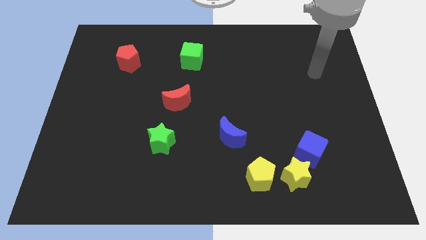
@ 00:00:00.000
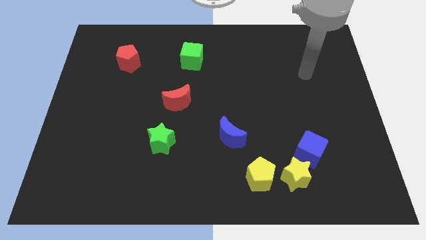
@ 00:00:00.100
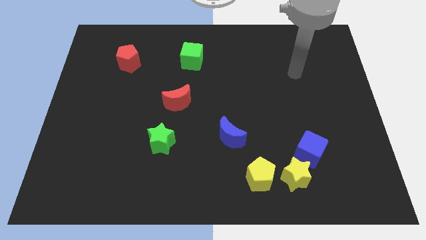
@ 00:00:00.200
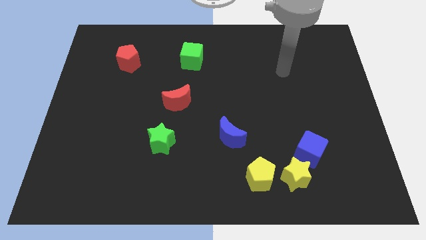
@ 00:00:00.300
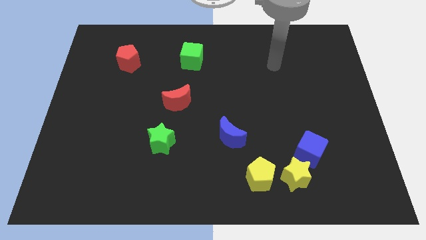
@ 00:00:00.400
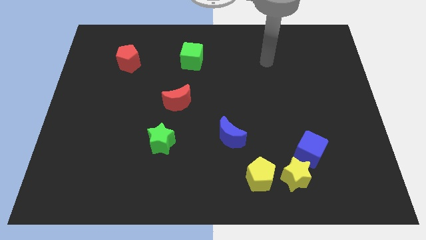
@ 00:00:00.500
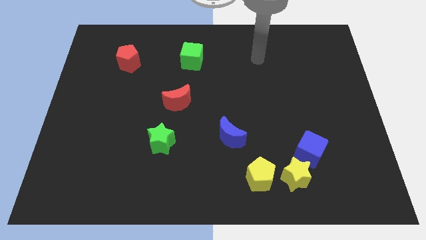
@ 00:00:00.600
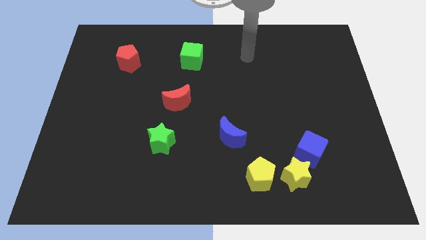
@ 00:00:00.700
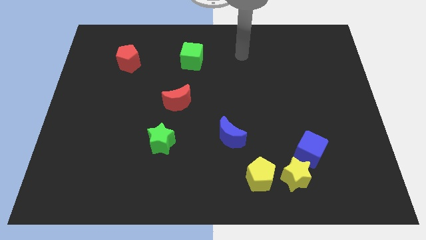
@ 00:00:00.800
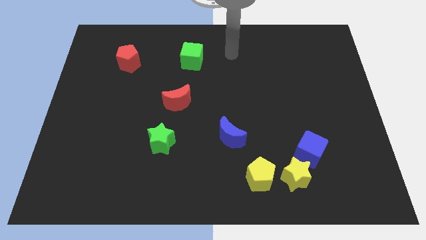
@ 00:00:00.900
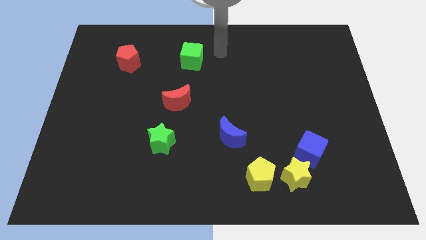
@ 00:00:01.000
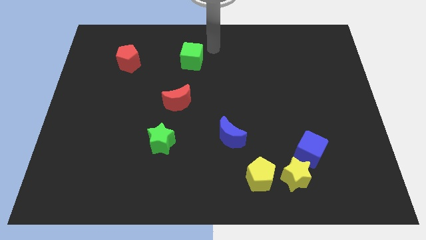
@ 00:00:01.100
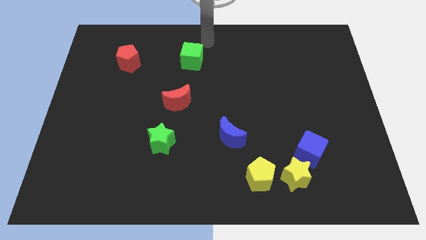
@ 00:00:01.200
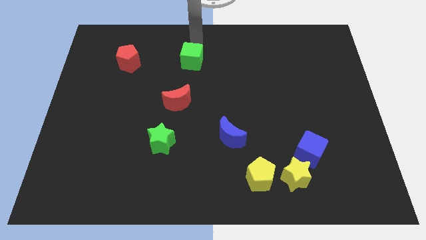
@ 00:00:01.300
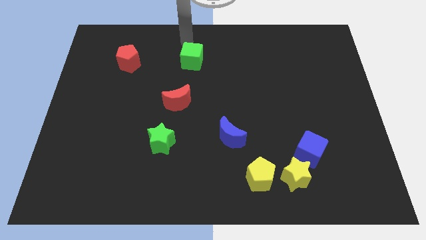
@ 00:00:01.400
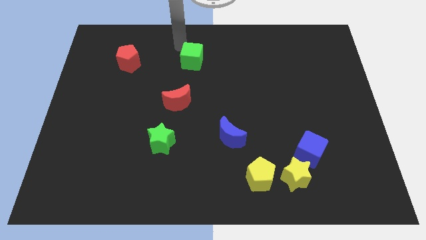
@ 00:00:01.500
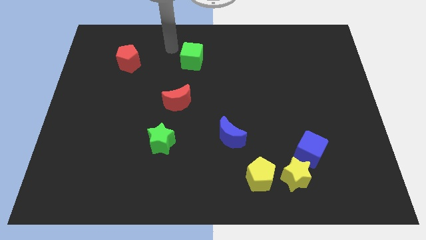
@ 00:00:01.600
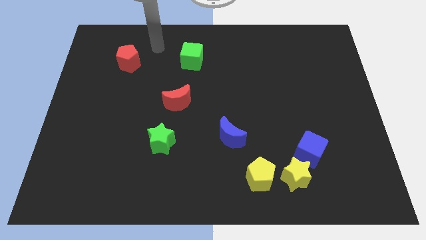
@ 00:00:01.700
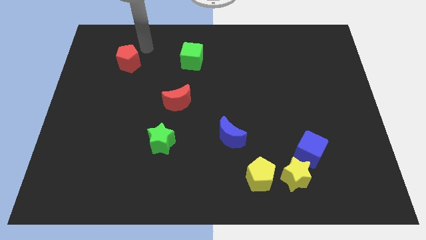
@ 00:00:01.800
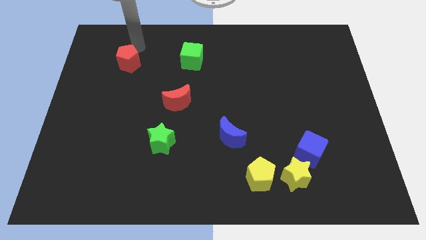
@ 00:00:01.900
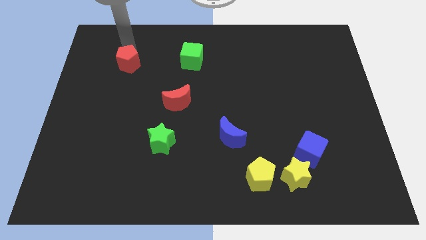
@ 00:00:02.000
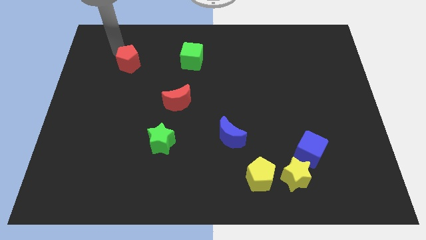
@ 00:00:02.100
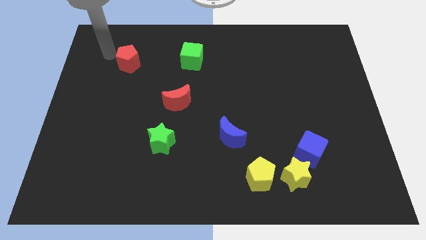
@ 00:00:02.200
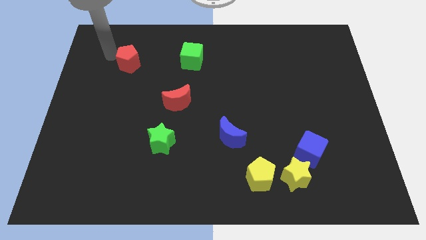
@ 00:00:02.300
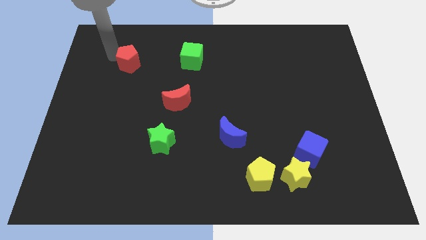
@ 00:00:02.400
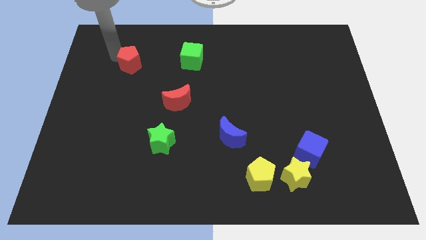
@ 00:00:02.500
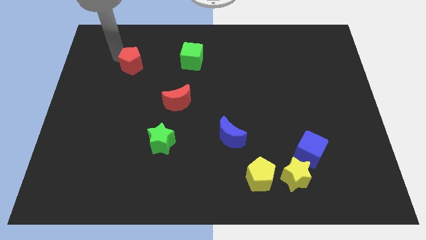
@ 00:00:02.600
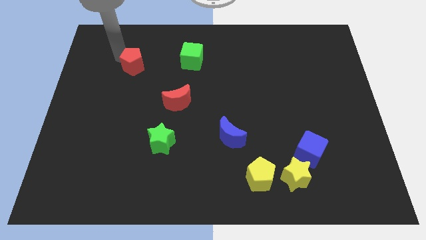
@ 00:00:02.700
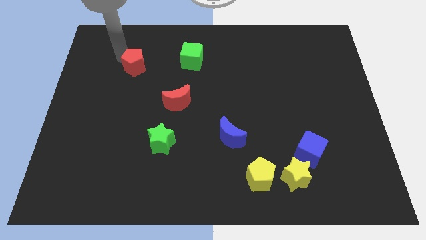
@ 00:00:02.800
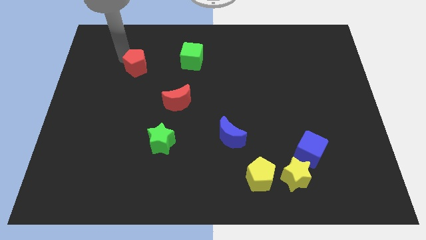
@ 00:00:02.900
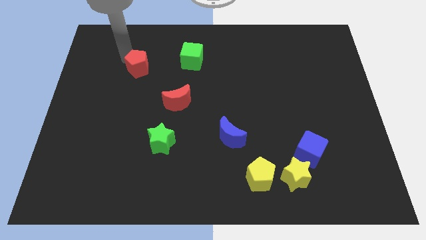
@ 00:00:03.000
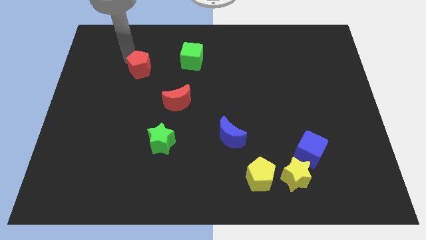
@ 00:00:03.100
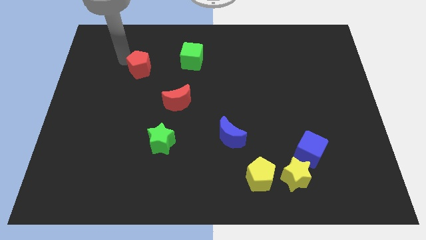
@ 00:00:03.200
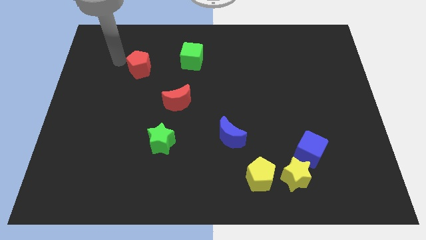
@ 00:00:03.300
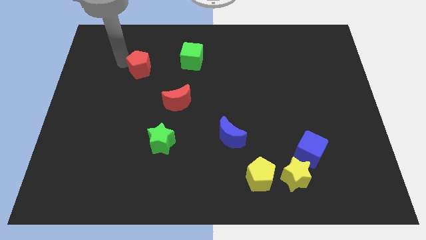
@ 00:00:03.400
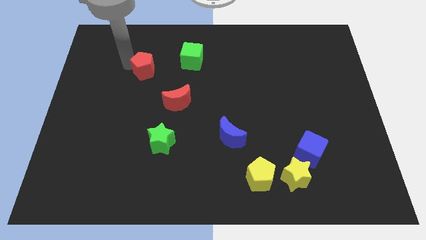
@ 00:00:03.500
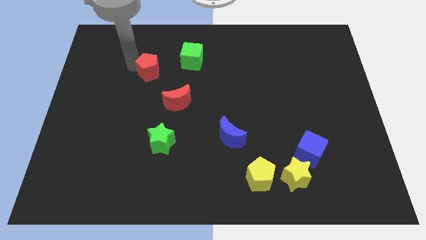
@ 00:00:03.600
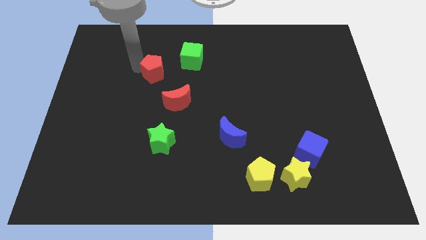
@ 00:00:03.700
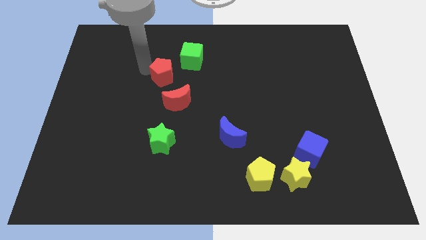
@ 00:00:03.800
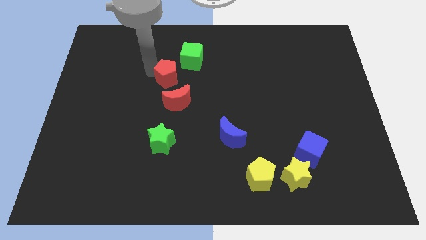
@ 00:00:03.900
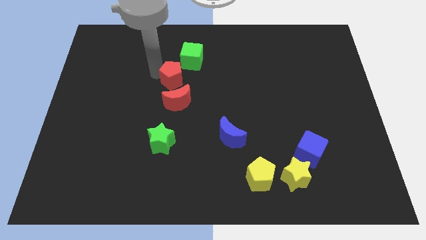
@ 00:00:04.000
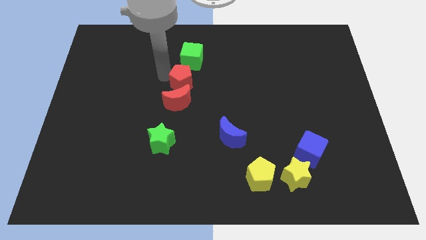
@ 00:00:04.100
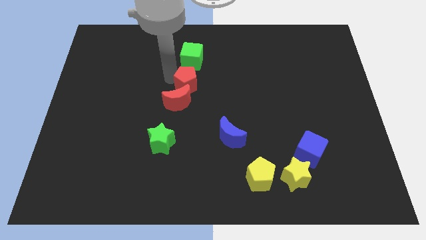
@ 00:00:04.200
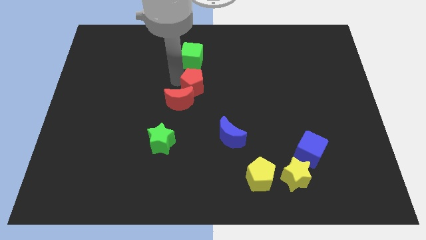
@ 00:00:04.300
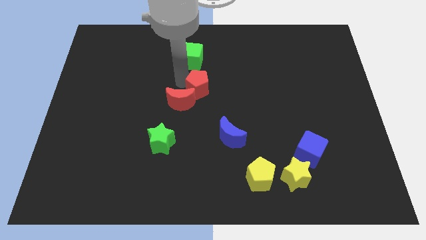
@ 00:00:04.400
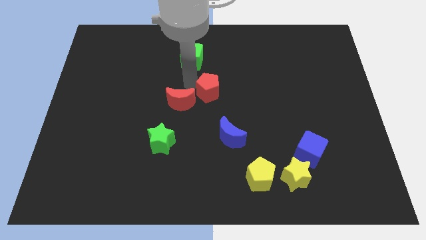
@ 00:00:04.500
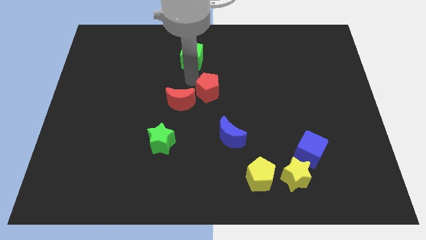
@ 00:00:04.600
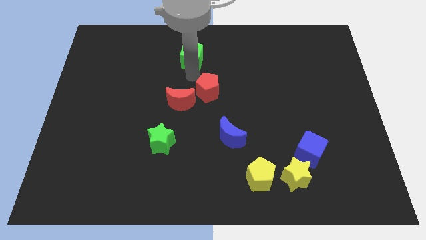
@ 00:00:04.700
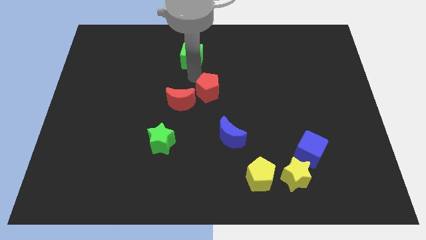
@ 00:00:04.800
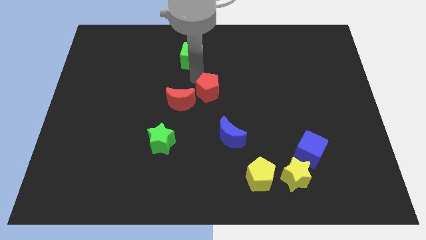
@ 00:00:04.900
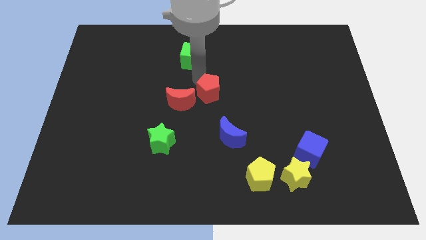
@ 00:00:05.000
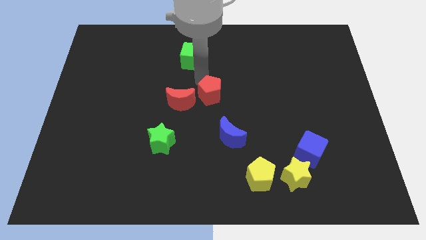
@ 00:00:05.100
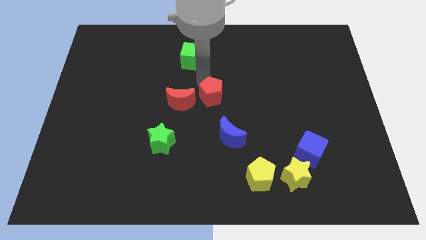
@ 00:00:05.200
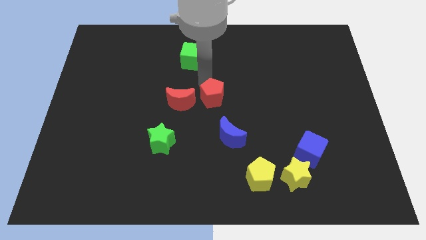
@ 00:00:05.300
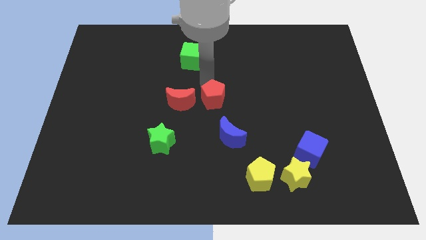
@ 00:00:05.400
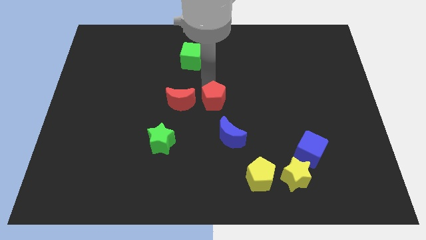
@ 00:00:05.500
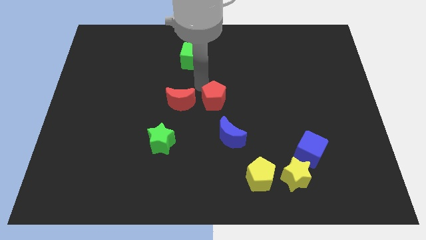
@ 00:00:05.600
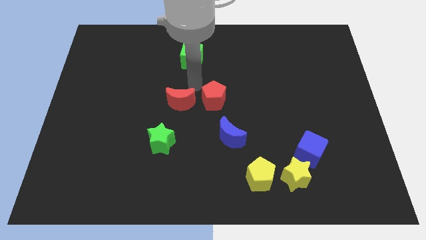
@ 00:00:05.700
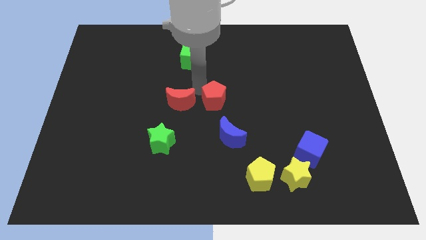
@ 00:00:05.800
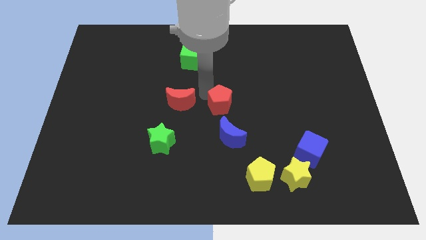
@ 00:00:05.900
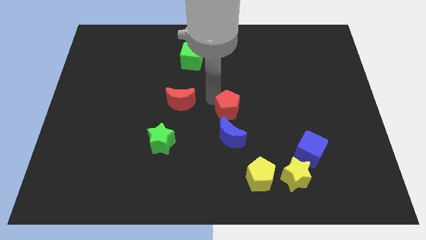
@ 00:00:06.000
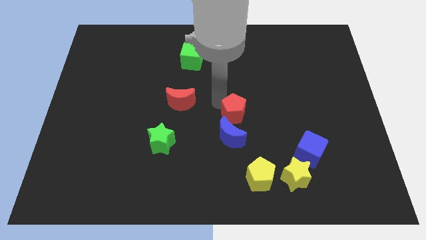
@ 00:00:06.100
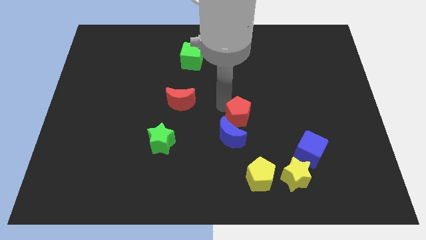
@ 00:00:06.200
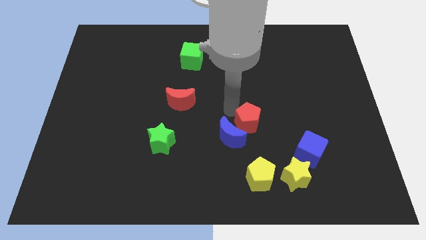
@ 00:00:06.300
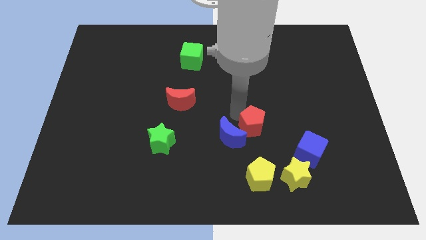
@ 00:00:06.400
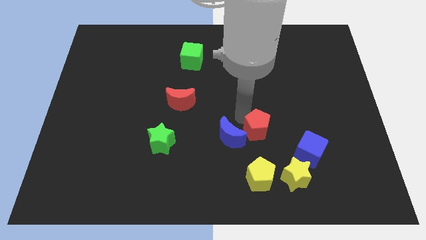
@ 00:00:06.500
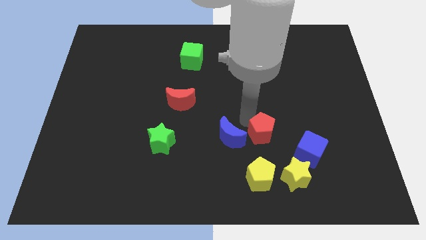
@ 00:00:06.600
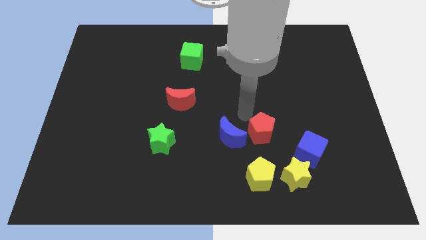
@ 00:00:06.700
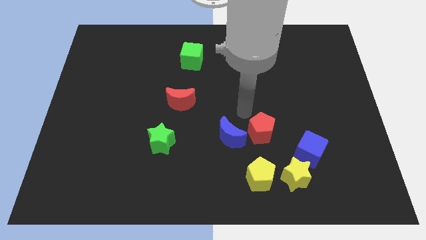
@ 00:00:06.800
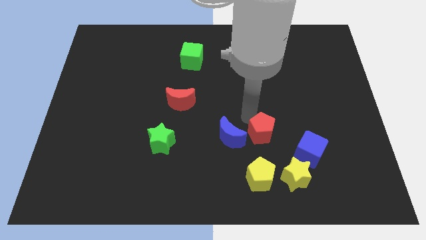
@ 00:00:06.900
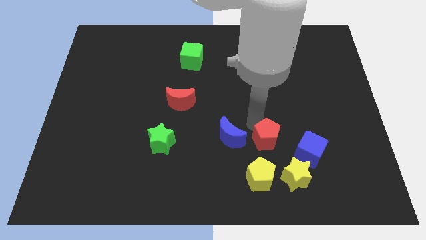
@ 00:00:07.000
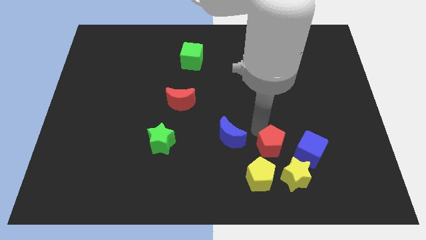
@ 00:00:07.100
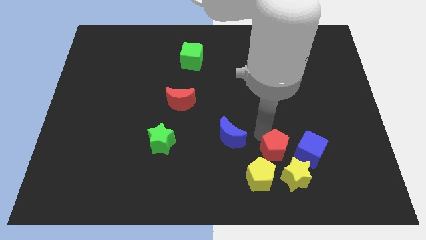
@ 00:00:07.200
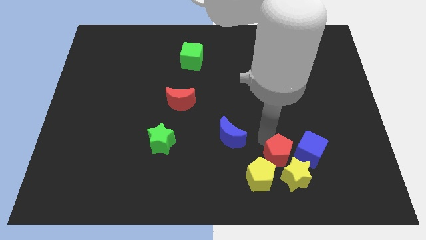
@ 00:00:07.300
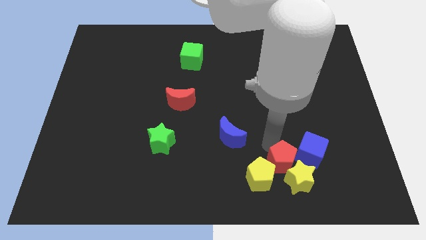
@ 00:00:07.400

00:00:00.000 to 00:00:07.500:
put the red pentagon next to the yellow star
